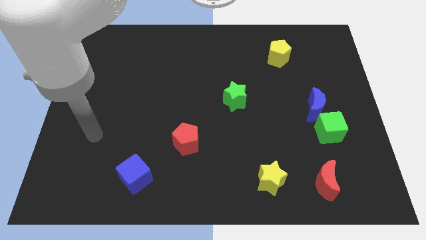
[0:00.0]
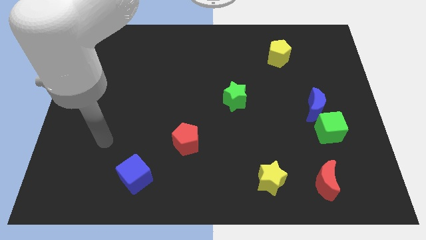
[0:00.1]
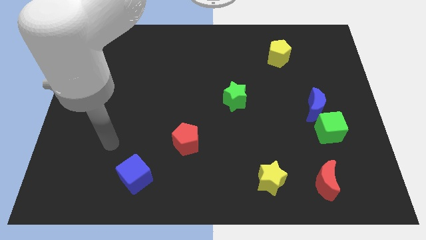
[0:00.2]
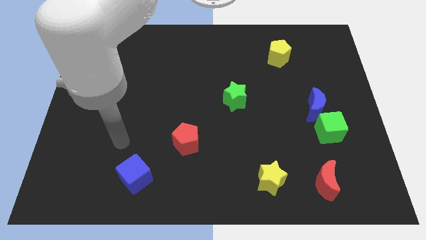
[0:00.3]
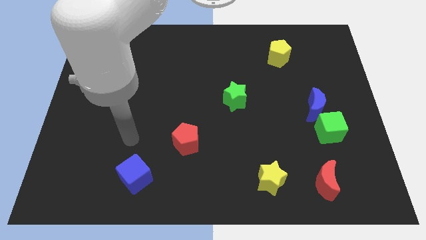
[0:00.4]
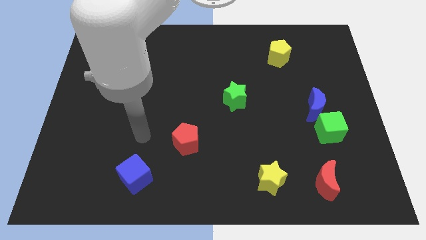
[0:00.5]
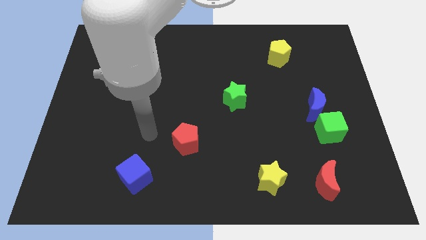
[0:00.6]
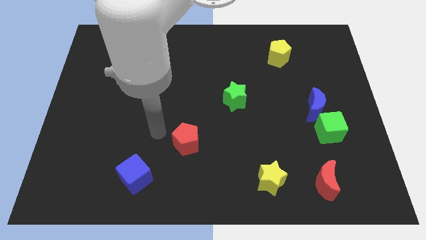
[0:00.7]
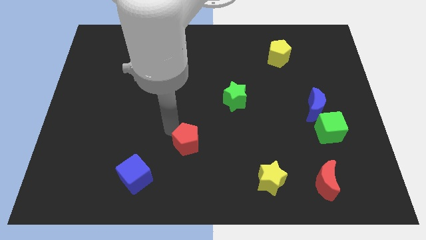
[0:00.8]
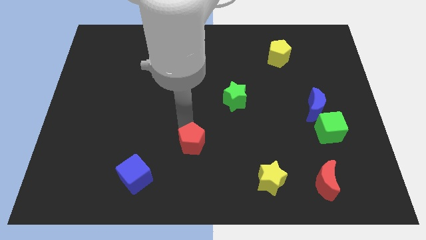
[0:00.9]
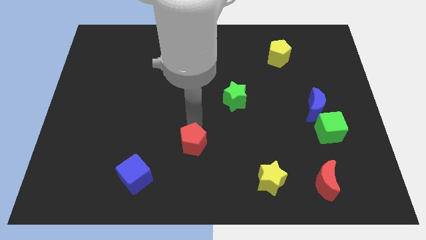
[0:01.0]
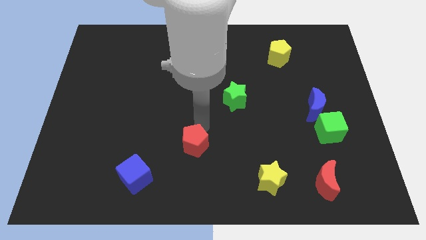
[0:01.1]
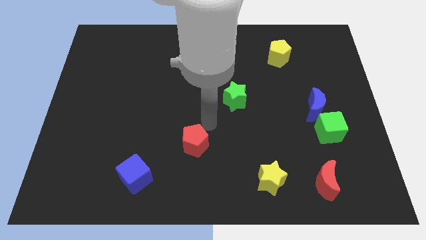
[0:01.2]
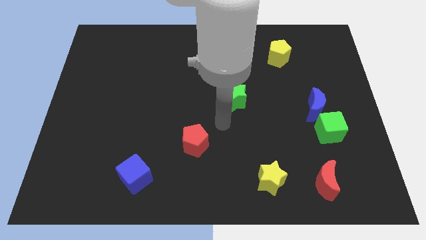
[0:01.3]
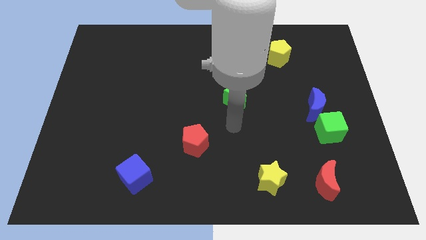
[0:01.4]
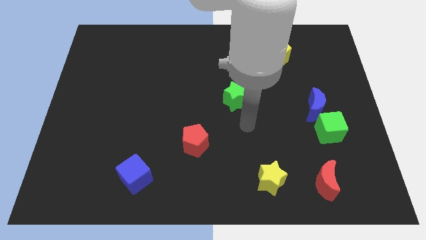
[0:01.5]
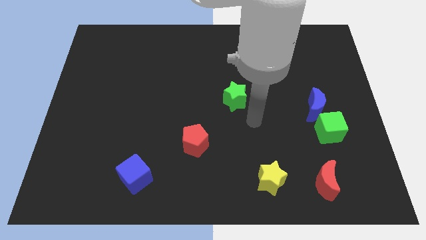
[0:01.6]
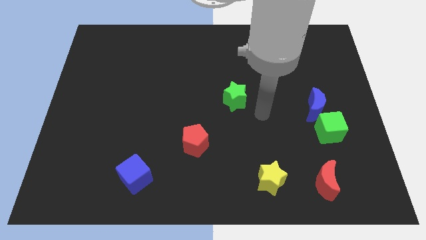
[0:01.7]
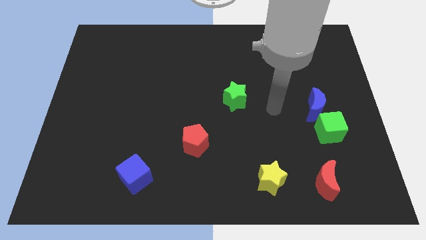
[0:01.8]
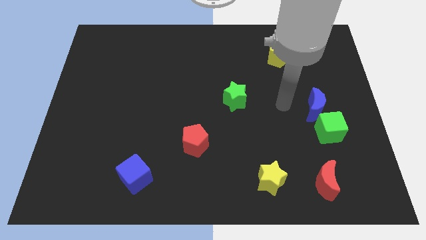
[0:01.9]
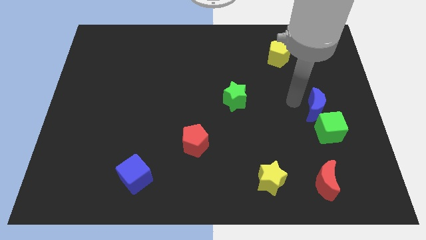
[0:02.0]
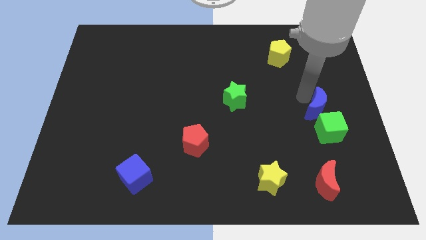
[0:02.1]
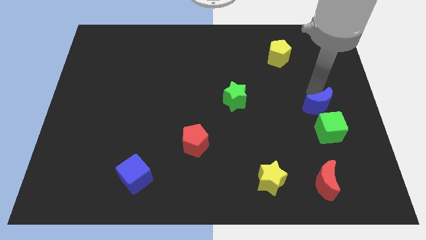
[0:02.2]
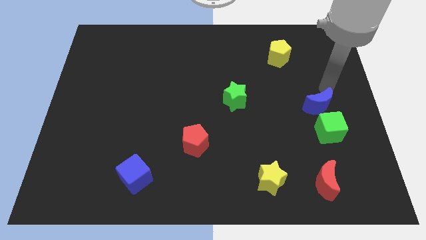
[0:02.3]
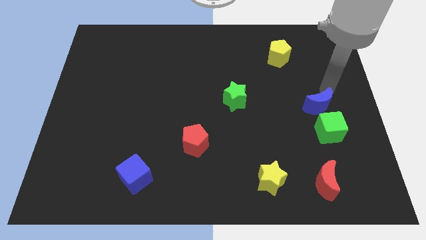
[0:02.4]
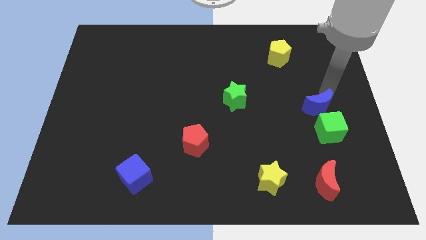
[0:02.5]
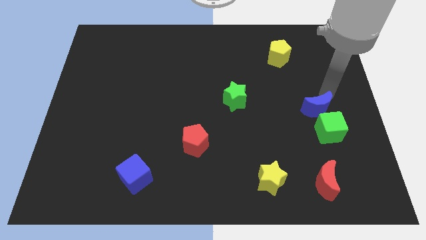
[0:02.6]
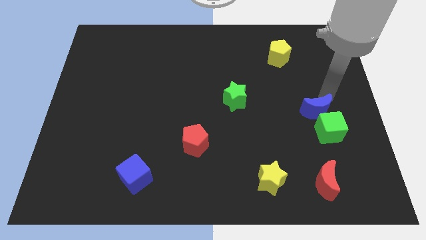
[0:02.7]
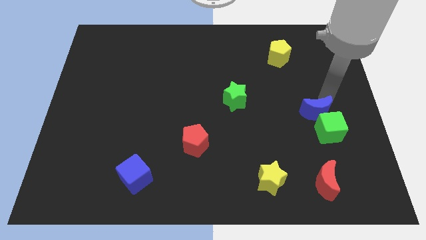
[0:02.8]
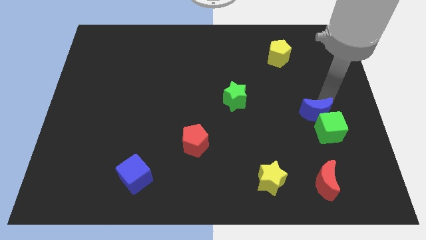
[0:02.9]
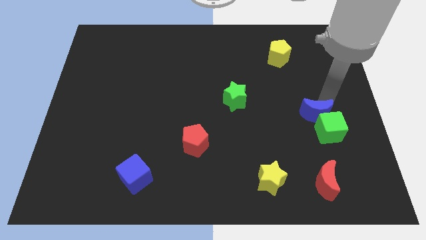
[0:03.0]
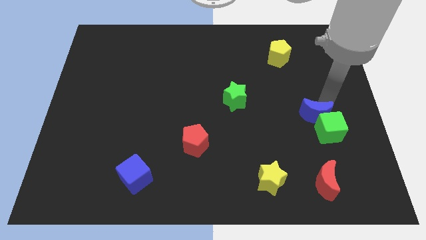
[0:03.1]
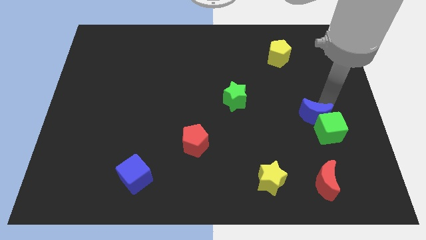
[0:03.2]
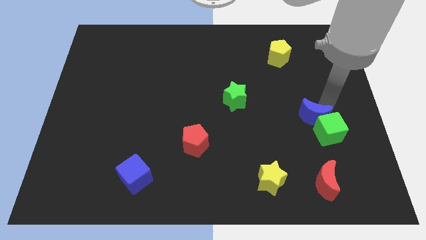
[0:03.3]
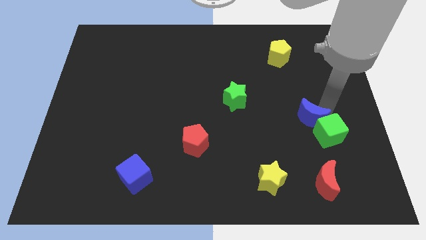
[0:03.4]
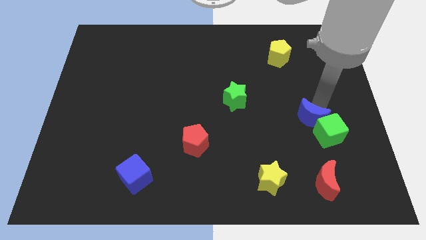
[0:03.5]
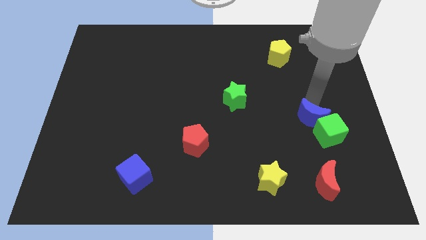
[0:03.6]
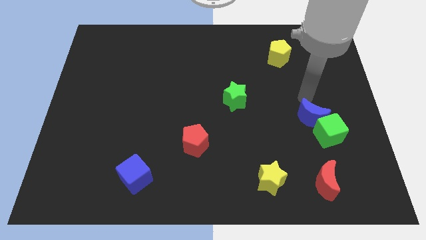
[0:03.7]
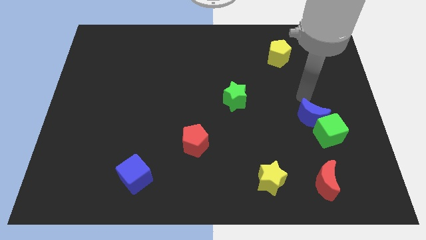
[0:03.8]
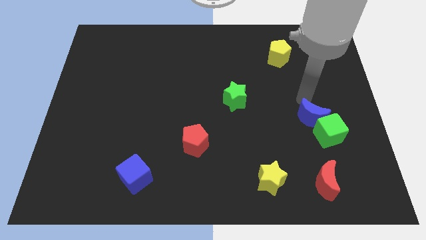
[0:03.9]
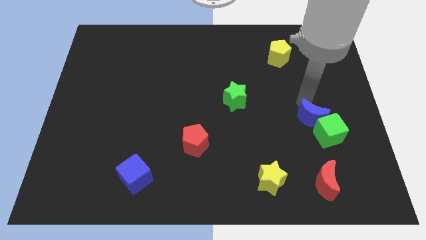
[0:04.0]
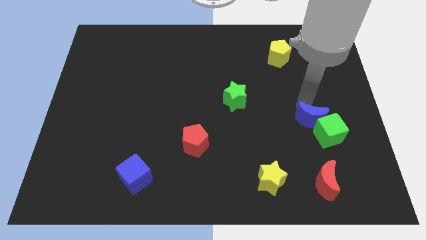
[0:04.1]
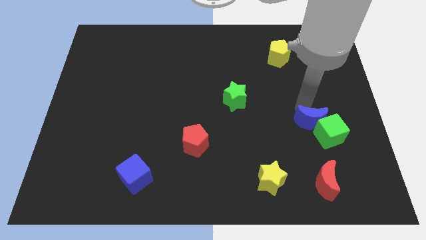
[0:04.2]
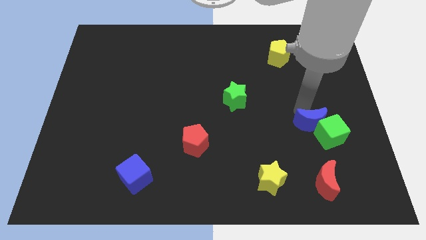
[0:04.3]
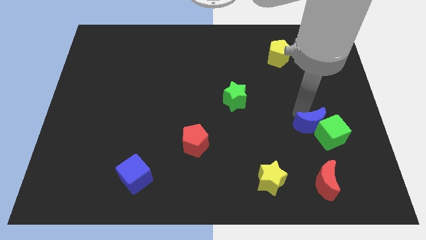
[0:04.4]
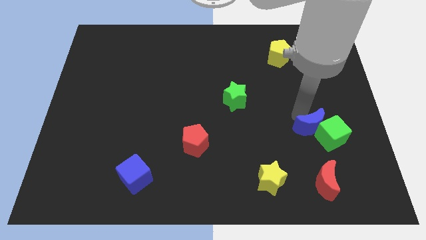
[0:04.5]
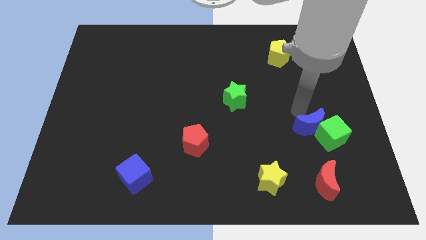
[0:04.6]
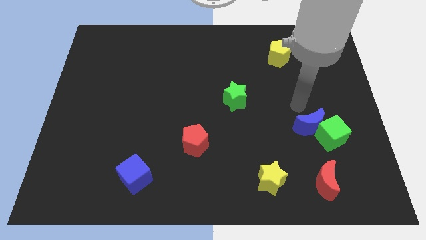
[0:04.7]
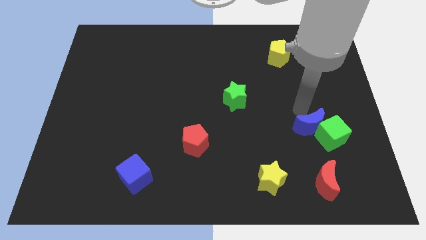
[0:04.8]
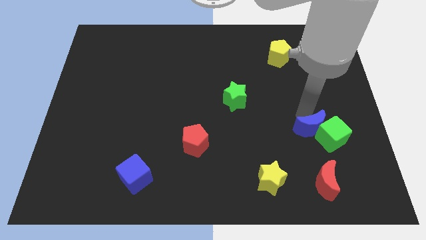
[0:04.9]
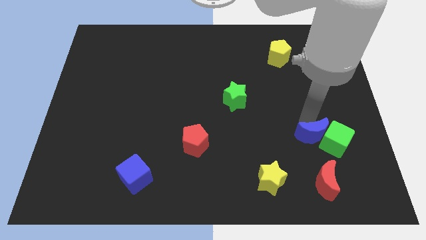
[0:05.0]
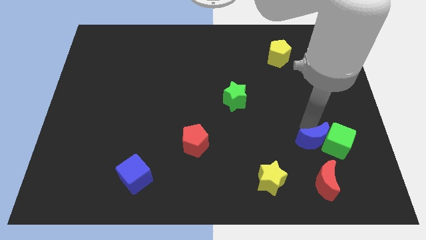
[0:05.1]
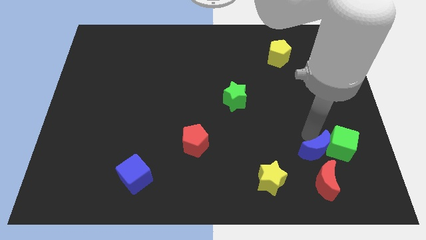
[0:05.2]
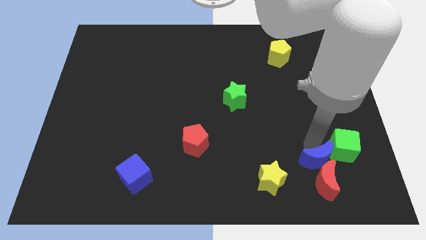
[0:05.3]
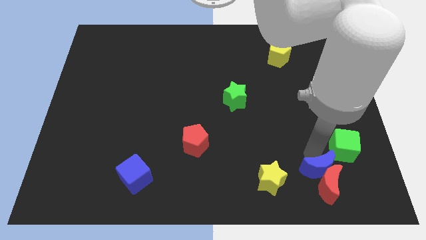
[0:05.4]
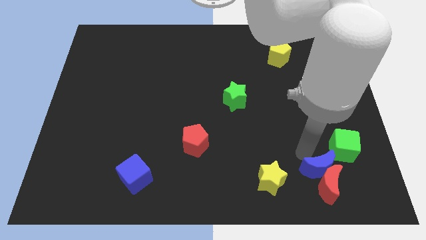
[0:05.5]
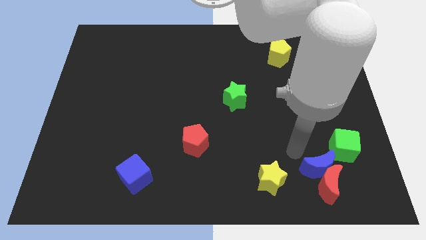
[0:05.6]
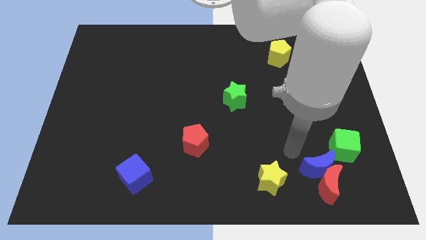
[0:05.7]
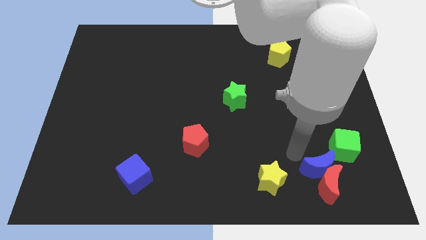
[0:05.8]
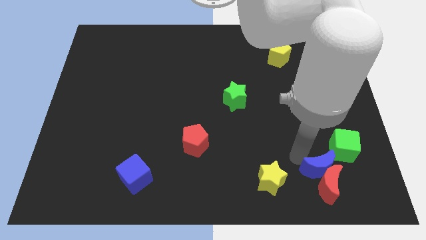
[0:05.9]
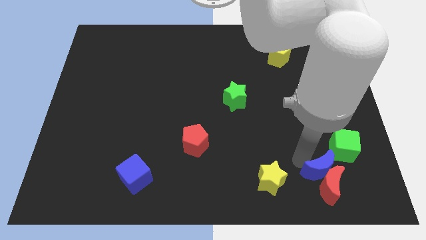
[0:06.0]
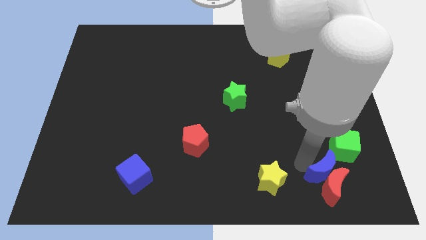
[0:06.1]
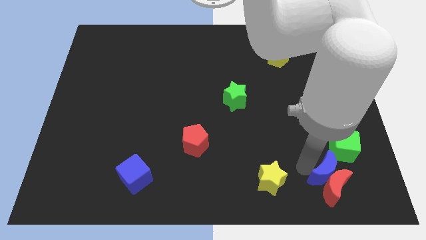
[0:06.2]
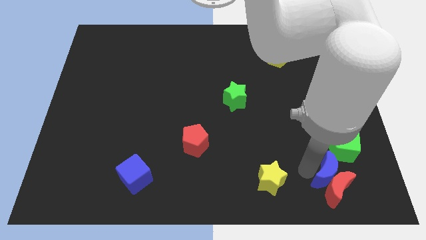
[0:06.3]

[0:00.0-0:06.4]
put the blue moon below the green cube
